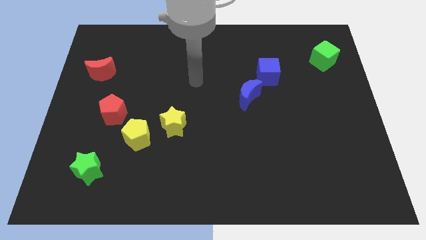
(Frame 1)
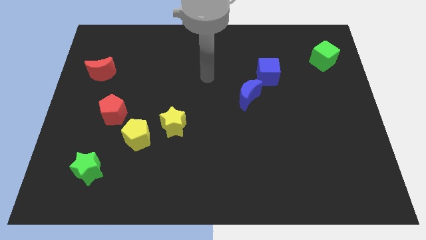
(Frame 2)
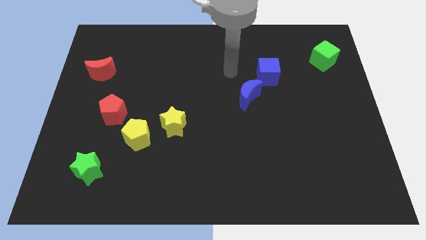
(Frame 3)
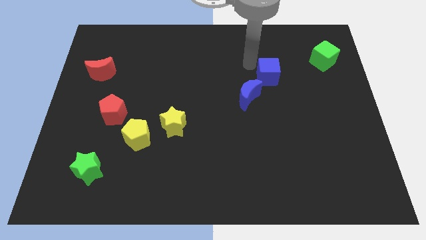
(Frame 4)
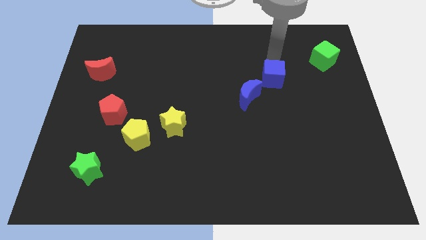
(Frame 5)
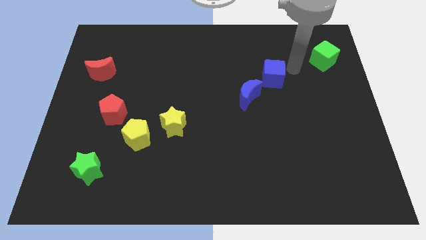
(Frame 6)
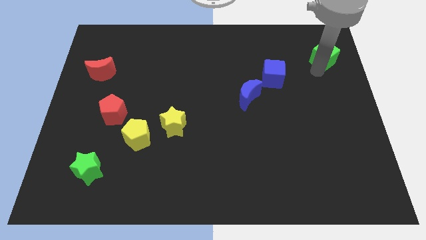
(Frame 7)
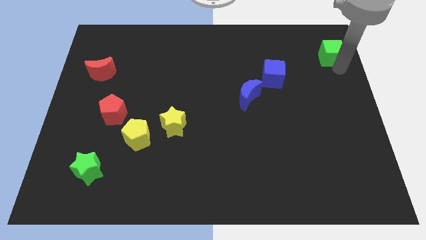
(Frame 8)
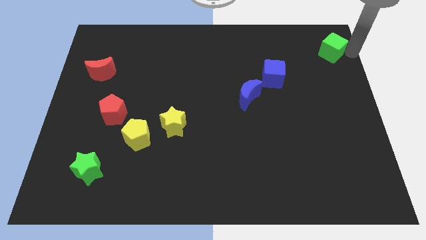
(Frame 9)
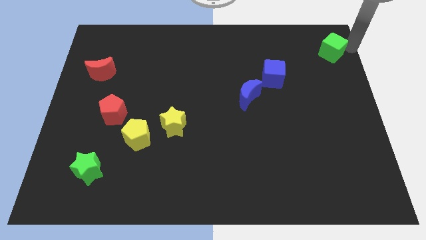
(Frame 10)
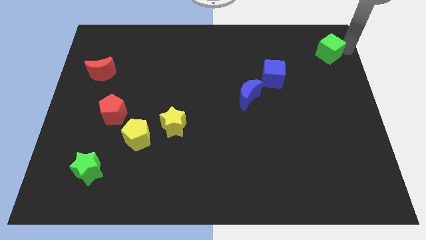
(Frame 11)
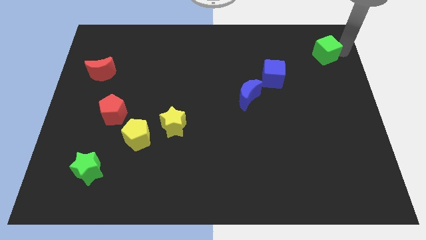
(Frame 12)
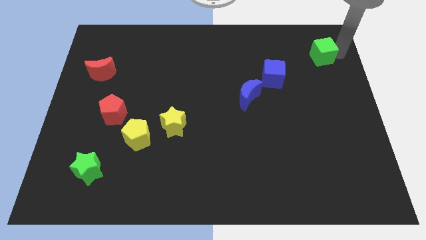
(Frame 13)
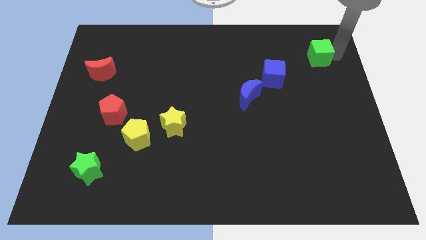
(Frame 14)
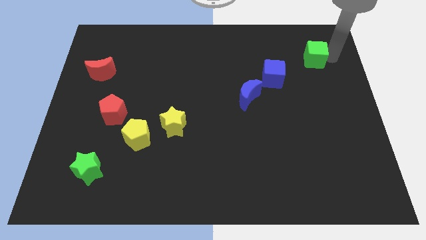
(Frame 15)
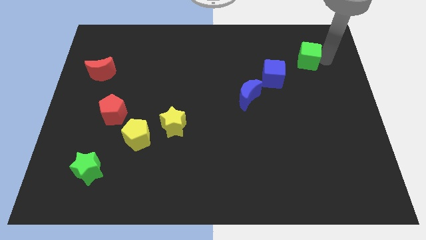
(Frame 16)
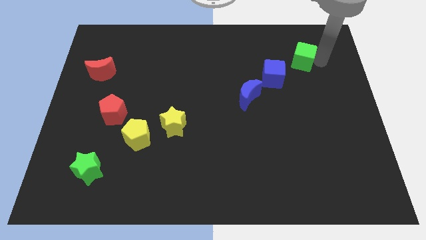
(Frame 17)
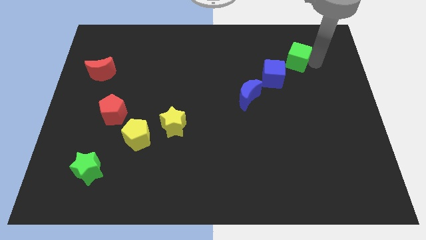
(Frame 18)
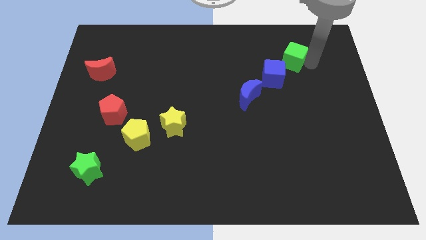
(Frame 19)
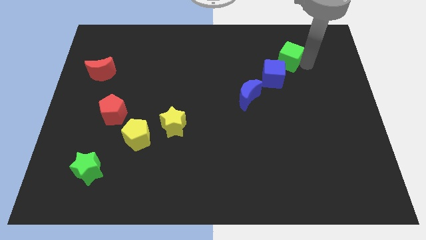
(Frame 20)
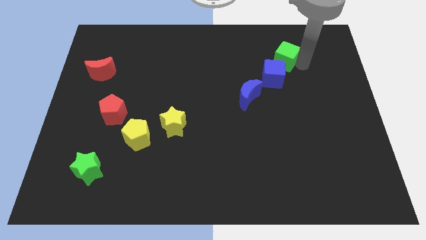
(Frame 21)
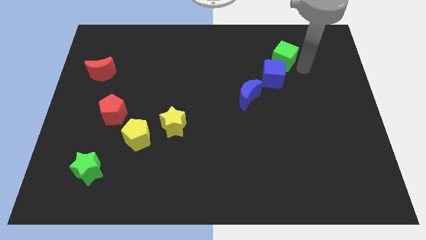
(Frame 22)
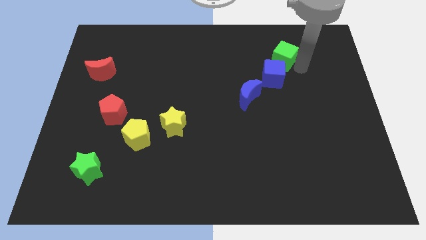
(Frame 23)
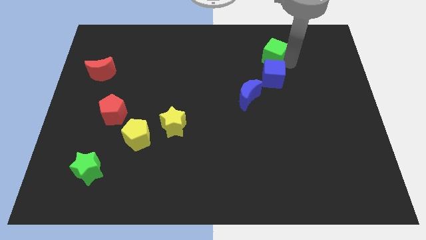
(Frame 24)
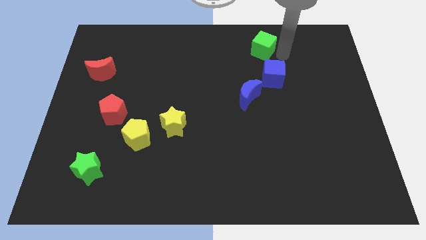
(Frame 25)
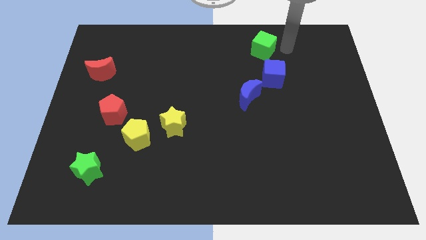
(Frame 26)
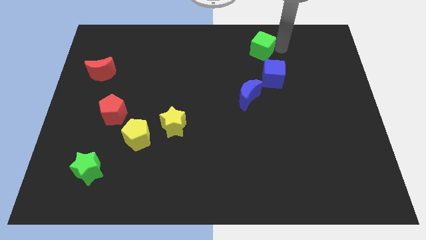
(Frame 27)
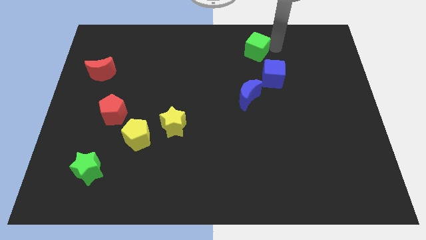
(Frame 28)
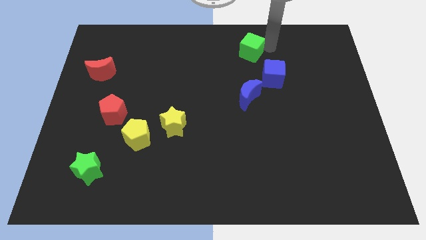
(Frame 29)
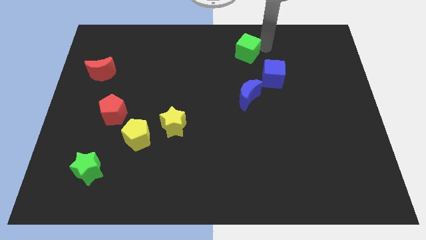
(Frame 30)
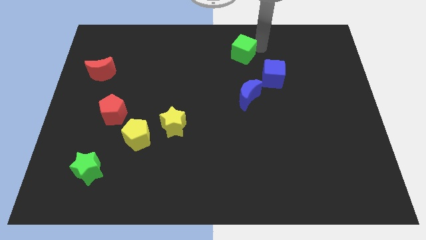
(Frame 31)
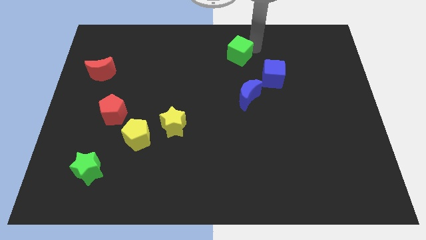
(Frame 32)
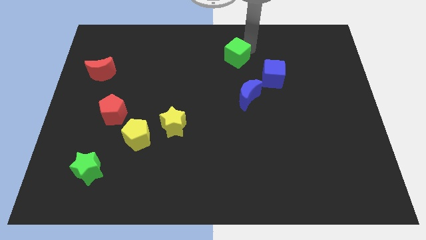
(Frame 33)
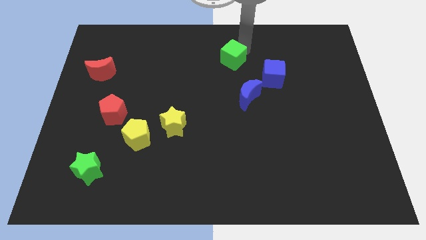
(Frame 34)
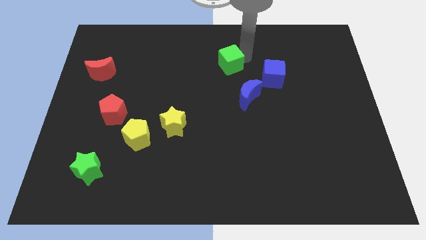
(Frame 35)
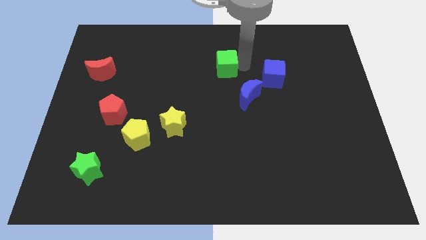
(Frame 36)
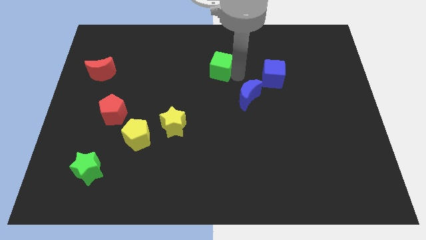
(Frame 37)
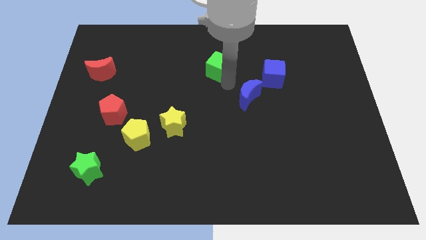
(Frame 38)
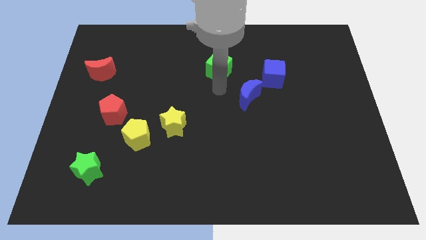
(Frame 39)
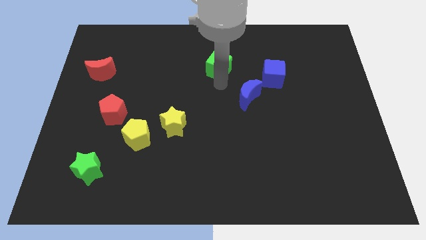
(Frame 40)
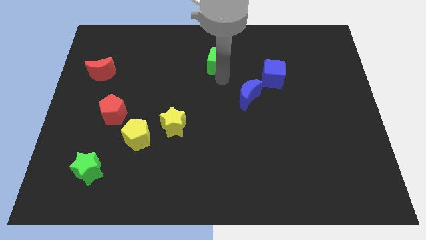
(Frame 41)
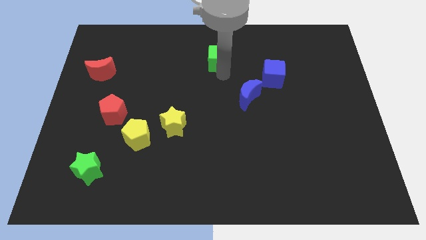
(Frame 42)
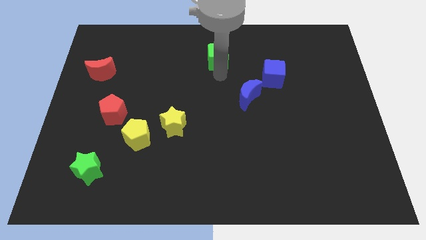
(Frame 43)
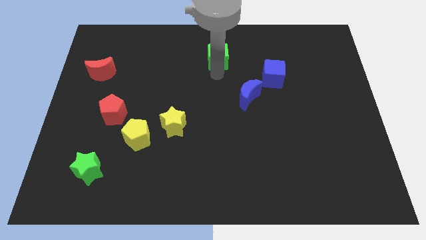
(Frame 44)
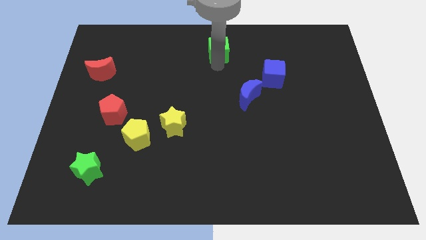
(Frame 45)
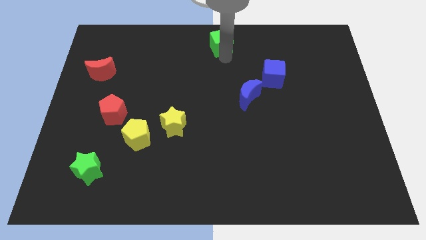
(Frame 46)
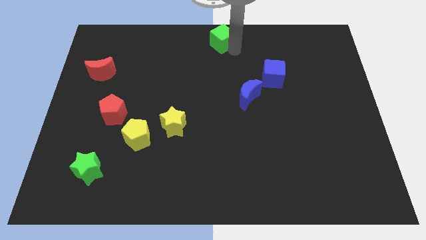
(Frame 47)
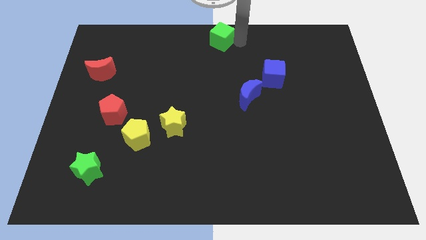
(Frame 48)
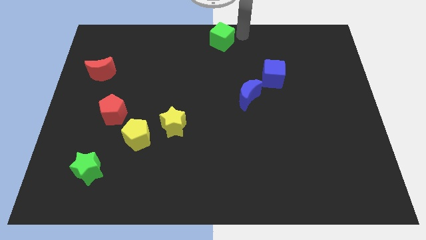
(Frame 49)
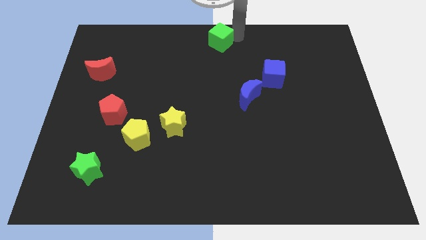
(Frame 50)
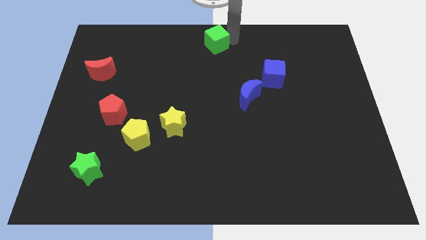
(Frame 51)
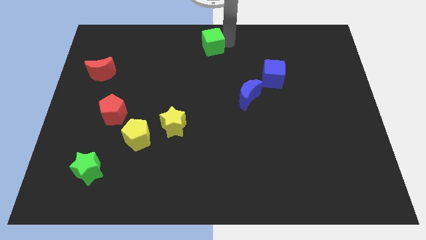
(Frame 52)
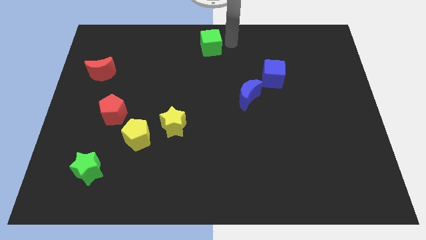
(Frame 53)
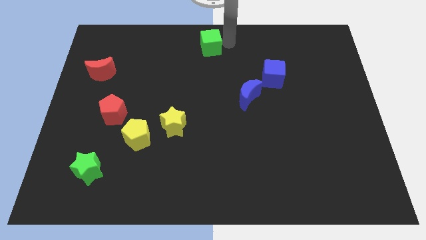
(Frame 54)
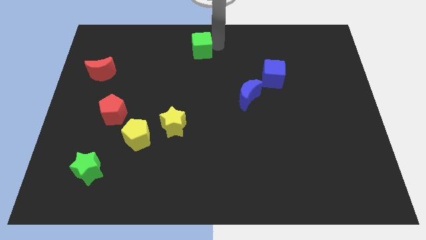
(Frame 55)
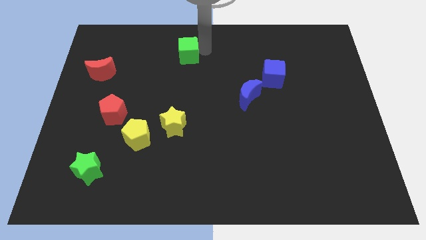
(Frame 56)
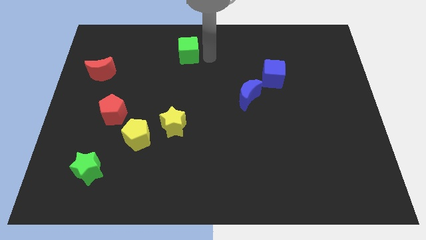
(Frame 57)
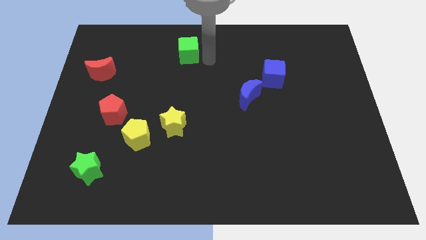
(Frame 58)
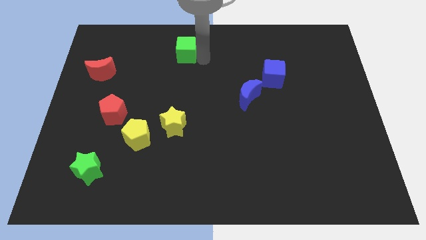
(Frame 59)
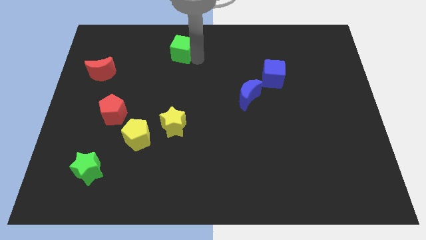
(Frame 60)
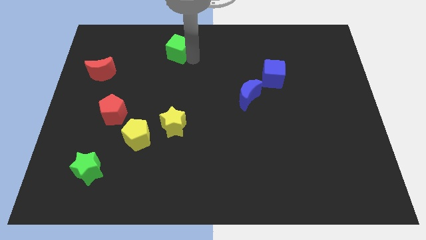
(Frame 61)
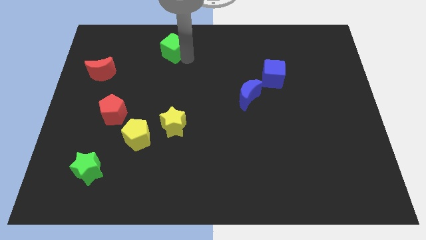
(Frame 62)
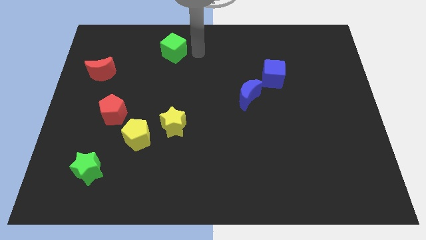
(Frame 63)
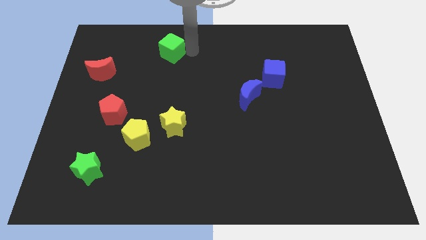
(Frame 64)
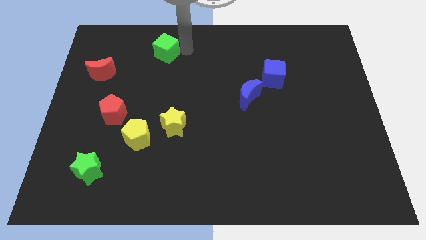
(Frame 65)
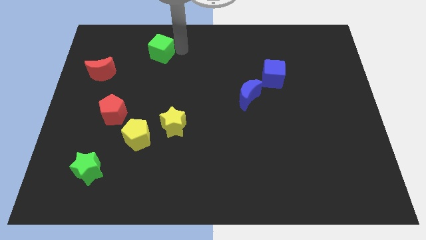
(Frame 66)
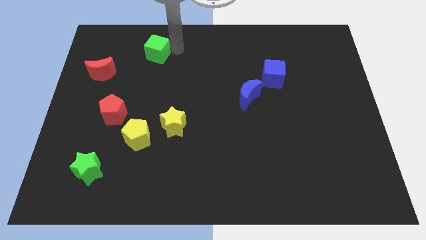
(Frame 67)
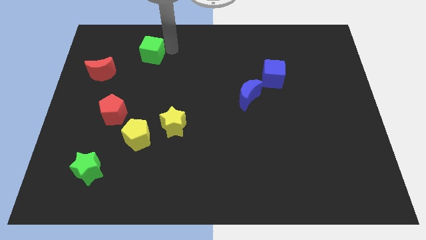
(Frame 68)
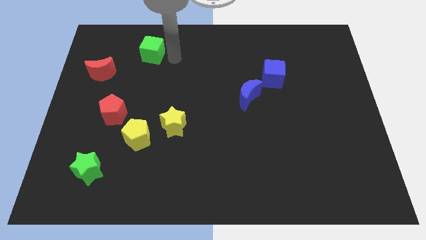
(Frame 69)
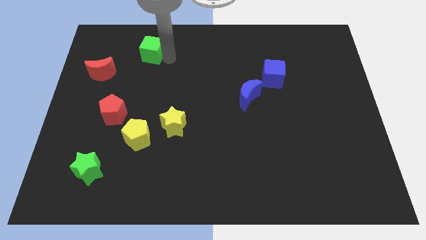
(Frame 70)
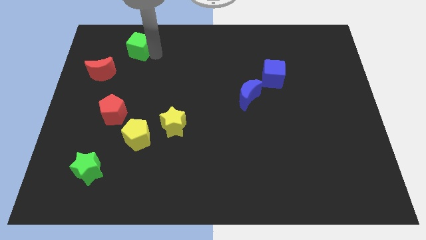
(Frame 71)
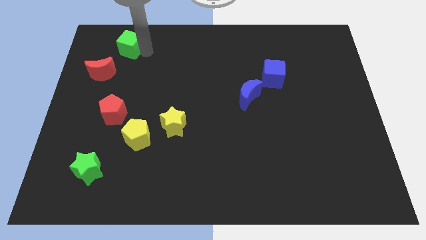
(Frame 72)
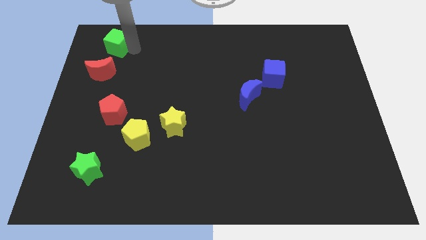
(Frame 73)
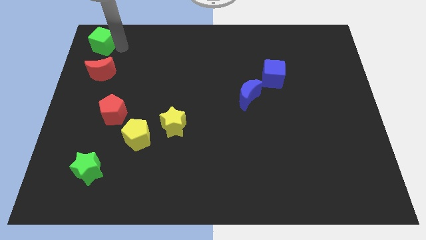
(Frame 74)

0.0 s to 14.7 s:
slide the green cube to the top left
